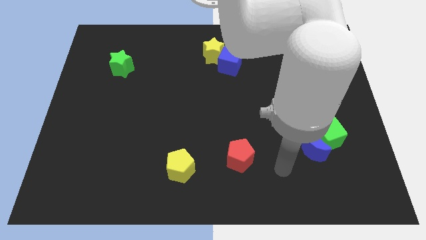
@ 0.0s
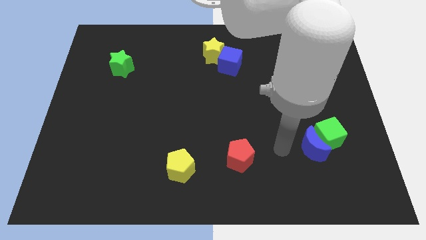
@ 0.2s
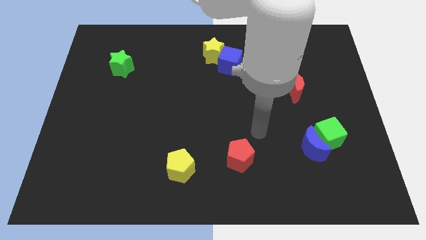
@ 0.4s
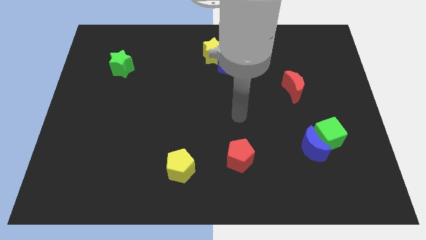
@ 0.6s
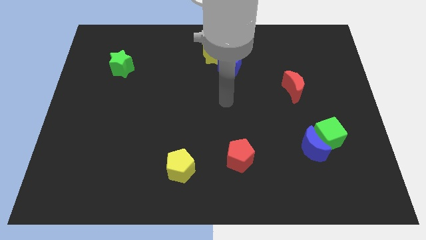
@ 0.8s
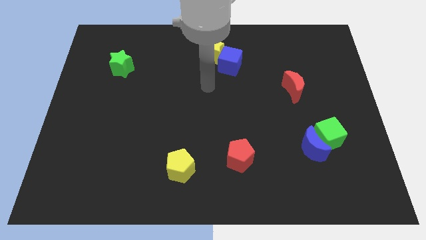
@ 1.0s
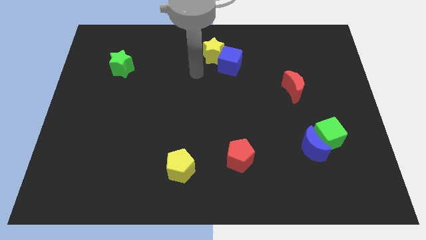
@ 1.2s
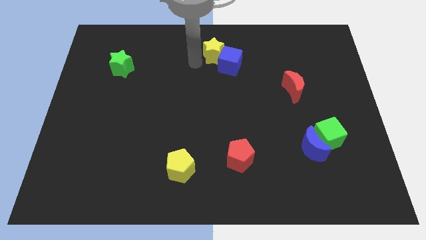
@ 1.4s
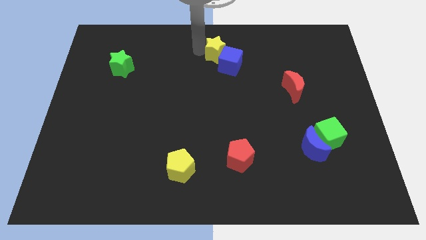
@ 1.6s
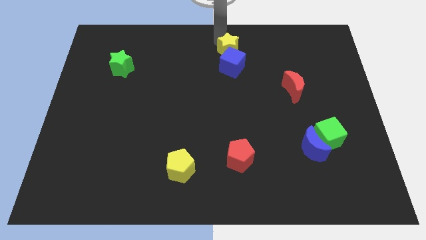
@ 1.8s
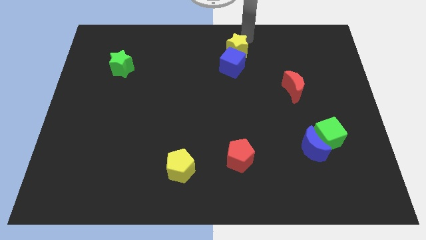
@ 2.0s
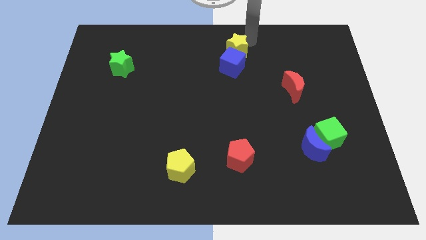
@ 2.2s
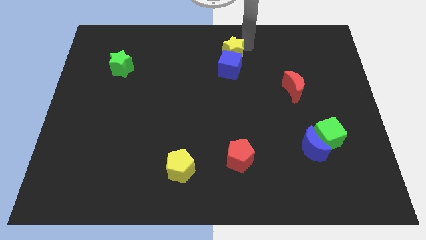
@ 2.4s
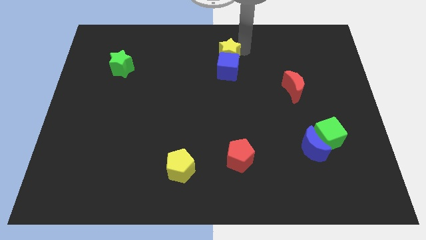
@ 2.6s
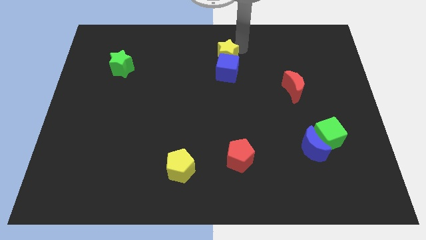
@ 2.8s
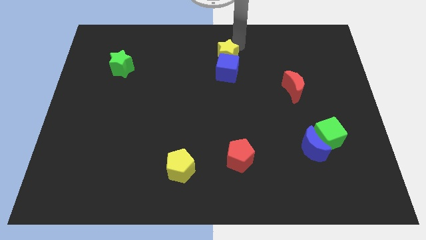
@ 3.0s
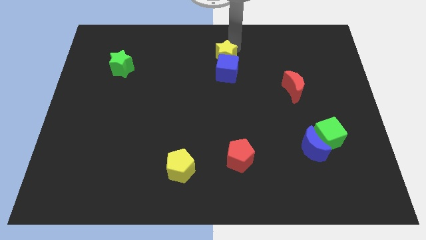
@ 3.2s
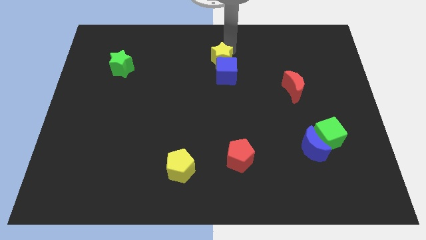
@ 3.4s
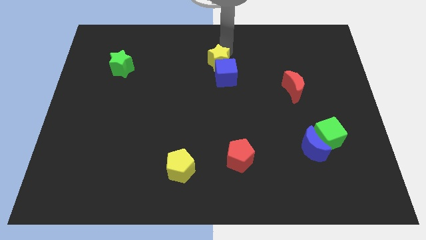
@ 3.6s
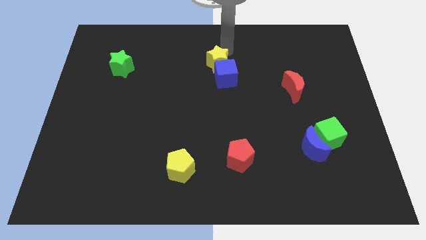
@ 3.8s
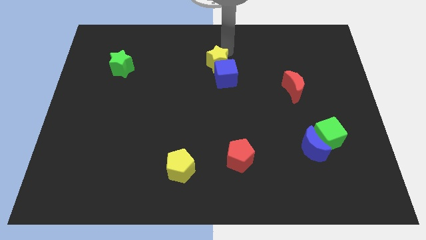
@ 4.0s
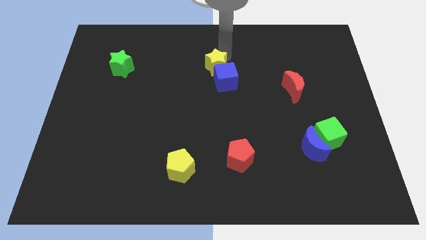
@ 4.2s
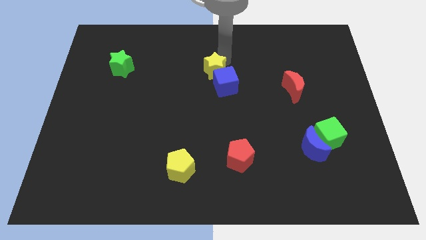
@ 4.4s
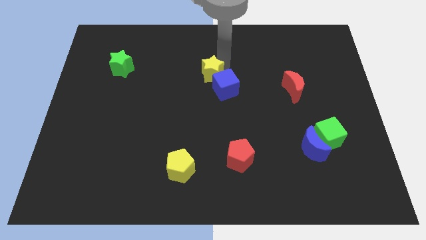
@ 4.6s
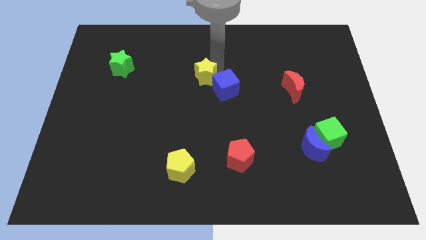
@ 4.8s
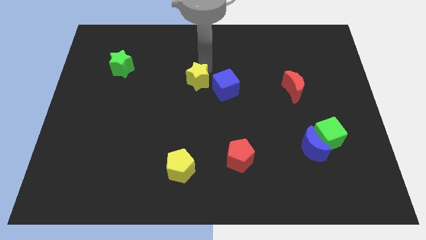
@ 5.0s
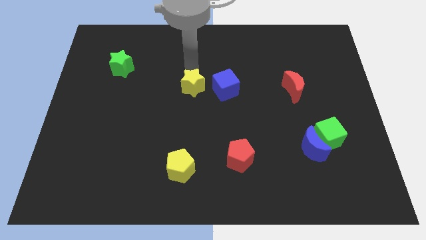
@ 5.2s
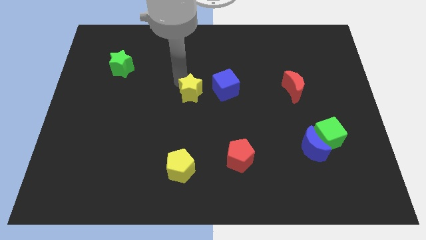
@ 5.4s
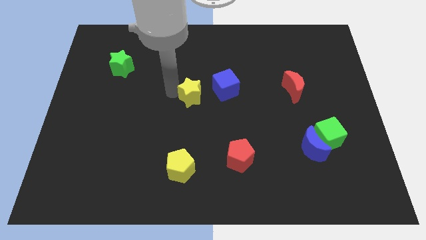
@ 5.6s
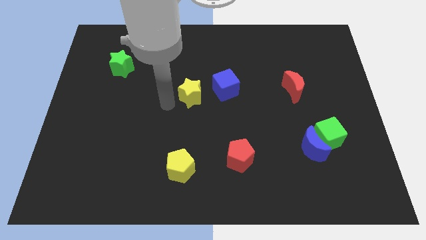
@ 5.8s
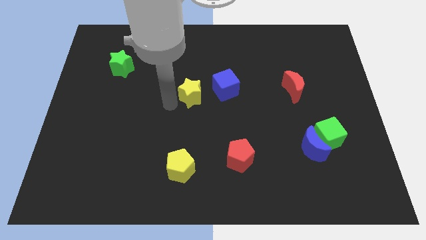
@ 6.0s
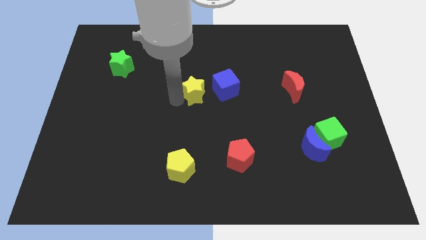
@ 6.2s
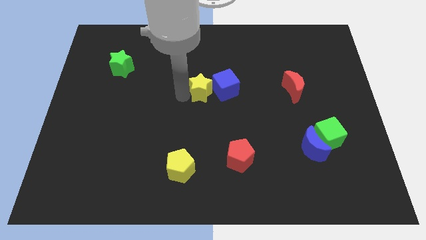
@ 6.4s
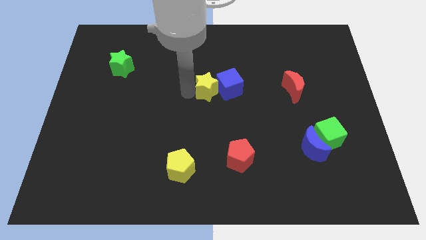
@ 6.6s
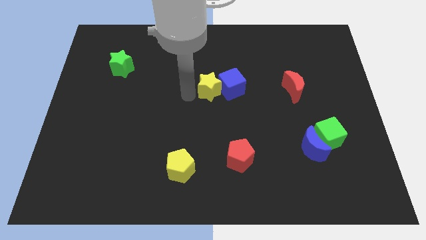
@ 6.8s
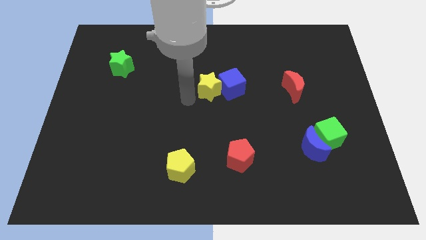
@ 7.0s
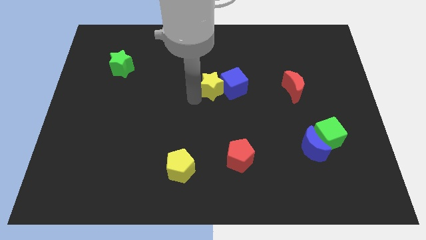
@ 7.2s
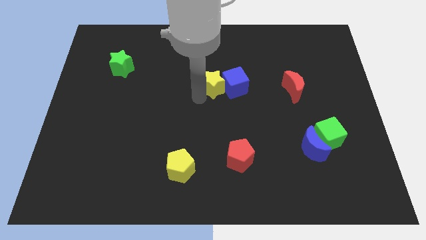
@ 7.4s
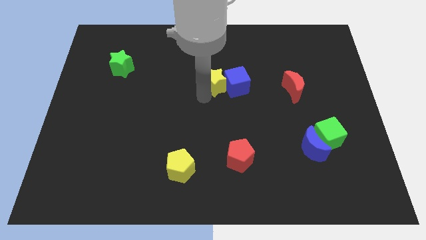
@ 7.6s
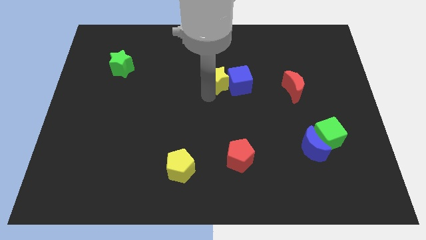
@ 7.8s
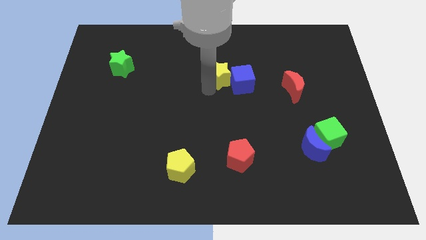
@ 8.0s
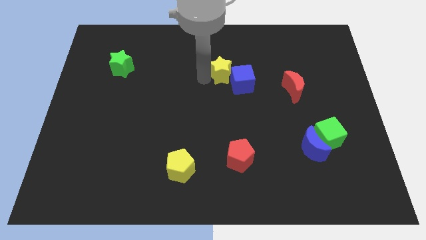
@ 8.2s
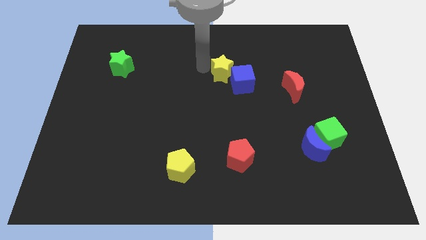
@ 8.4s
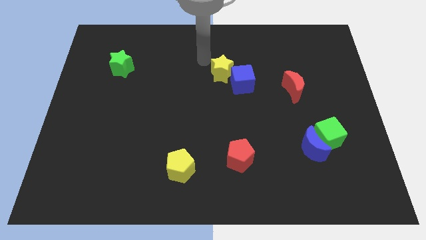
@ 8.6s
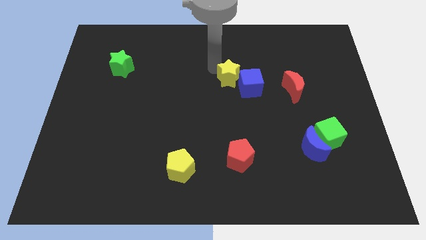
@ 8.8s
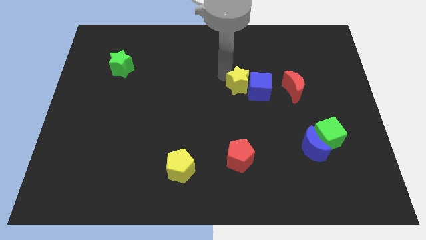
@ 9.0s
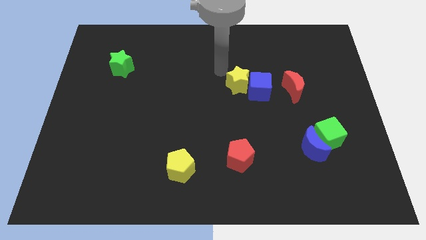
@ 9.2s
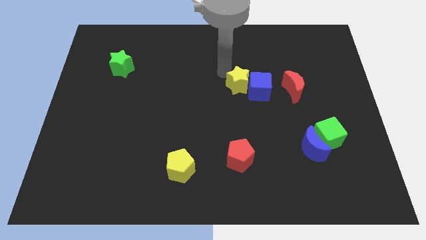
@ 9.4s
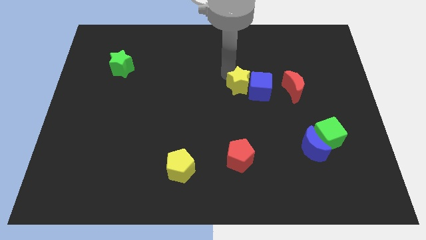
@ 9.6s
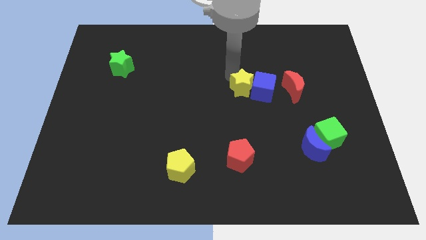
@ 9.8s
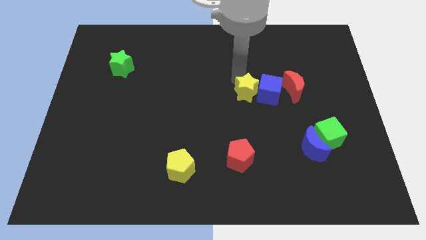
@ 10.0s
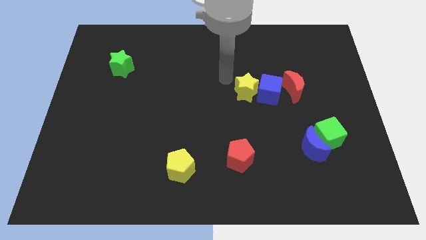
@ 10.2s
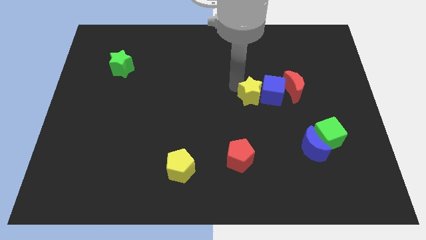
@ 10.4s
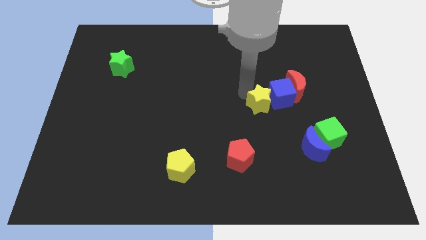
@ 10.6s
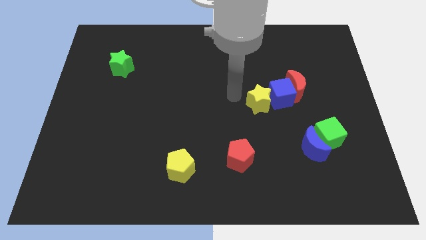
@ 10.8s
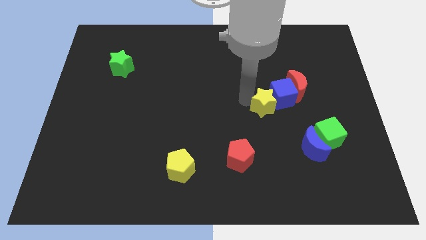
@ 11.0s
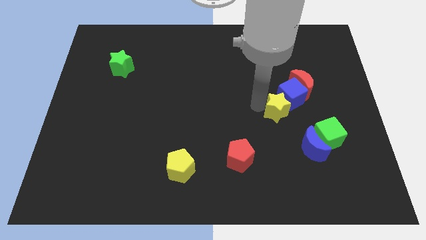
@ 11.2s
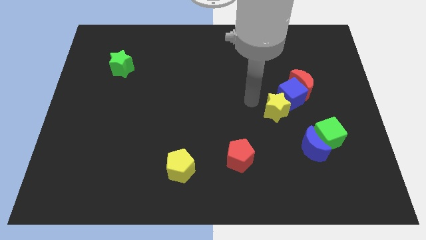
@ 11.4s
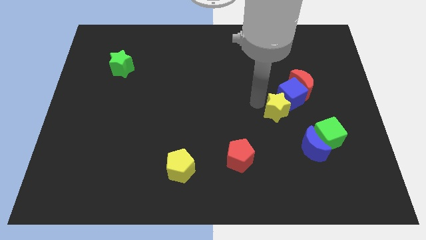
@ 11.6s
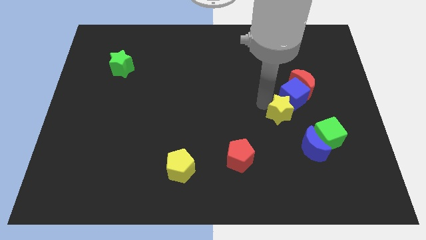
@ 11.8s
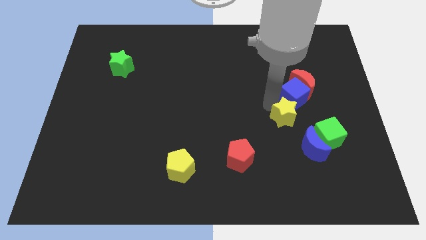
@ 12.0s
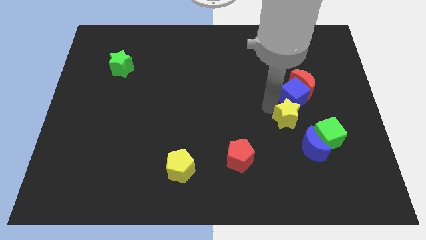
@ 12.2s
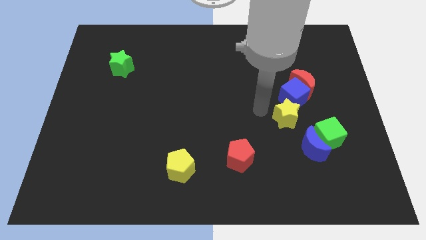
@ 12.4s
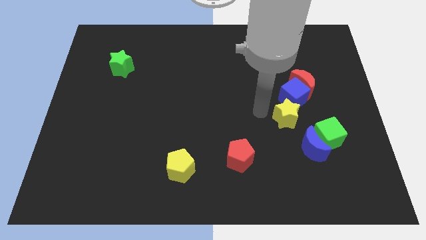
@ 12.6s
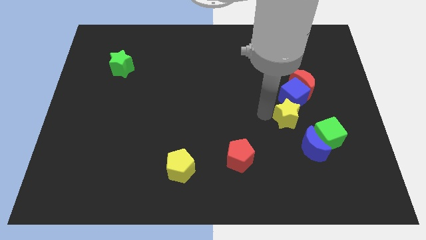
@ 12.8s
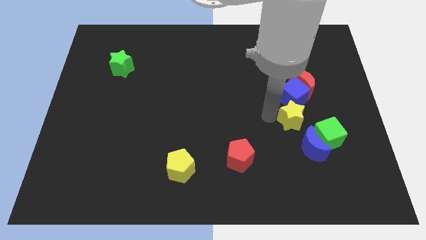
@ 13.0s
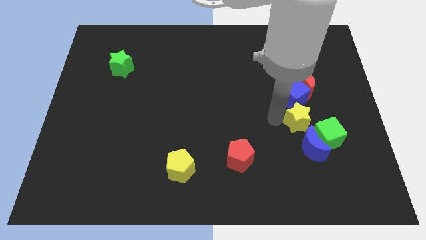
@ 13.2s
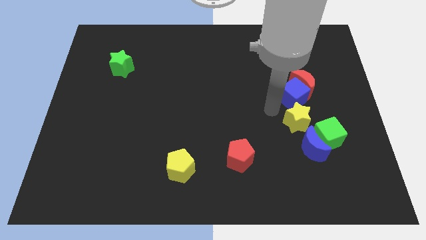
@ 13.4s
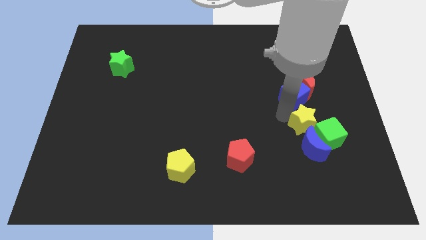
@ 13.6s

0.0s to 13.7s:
slide the yellow star to the green cube

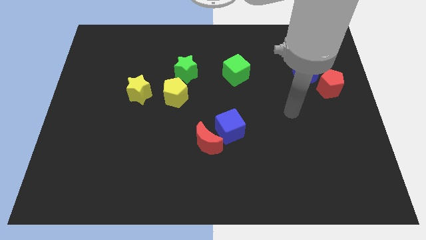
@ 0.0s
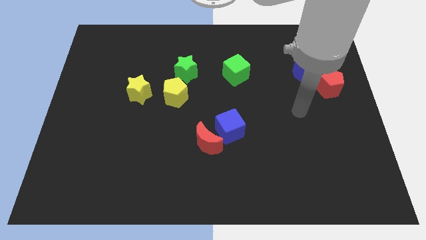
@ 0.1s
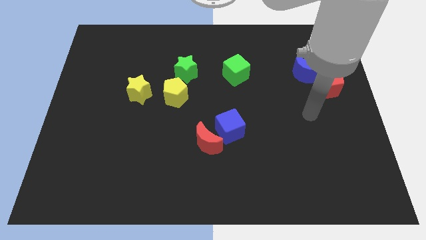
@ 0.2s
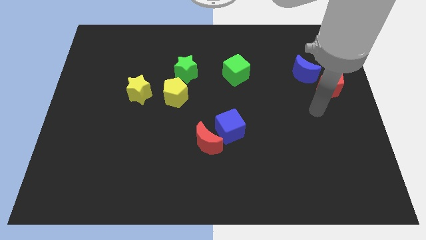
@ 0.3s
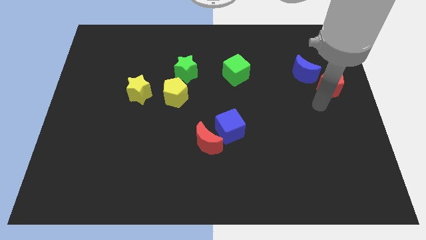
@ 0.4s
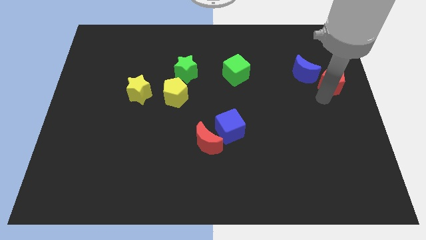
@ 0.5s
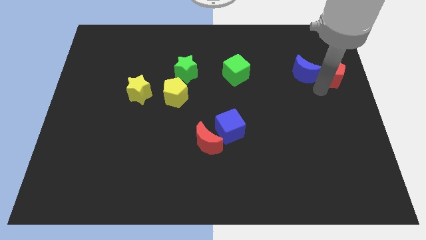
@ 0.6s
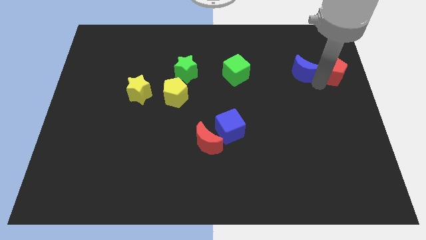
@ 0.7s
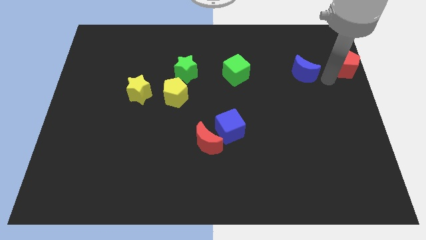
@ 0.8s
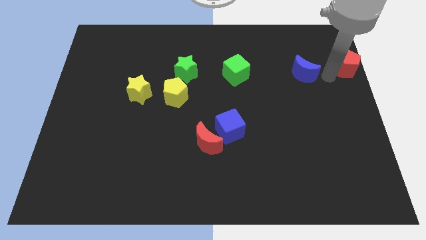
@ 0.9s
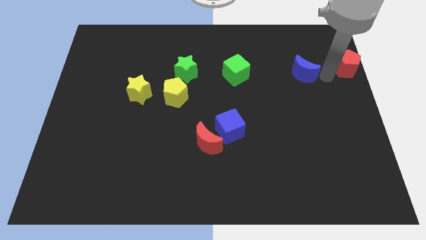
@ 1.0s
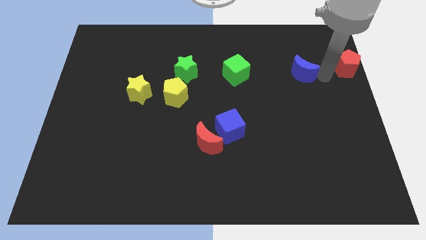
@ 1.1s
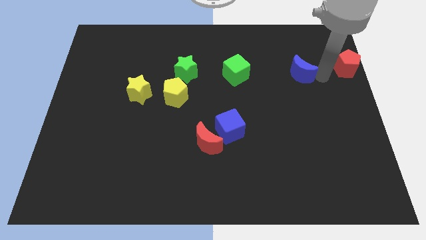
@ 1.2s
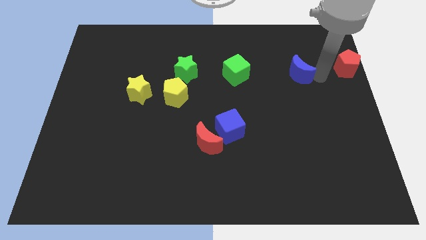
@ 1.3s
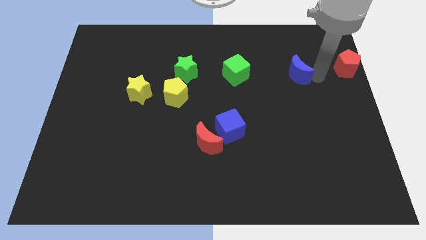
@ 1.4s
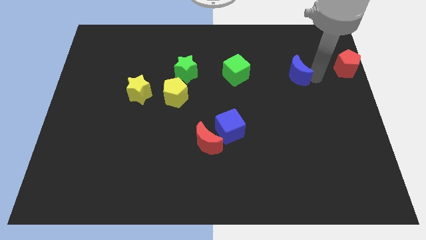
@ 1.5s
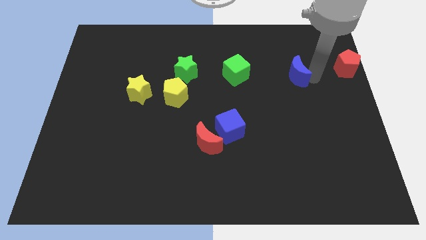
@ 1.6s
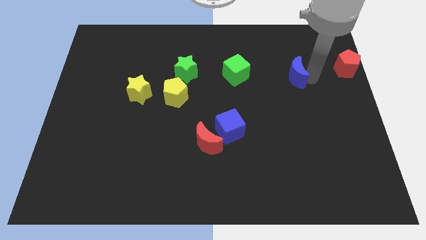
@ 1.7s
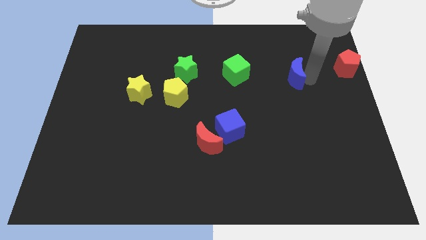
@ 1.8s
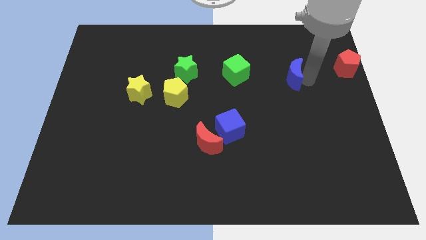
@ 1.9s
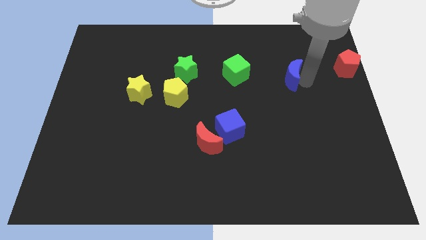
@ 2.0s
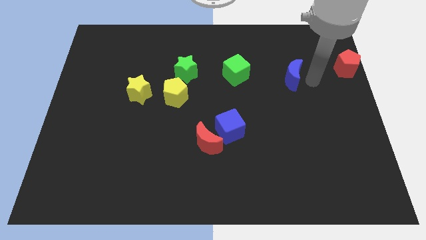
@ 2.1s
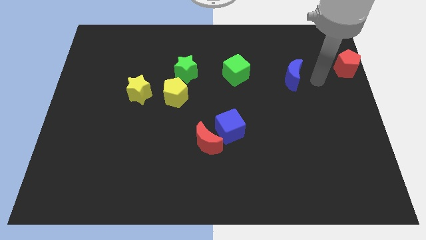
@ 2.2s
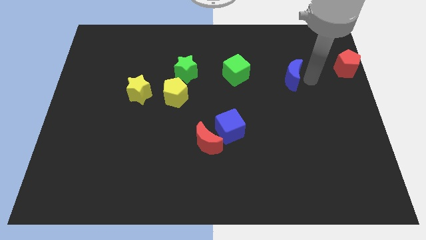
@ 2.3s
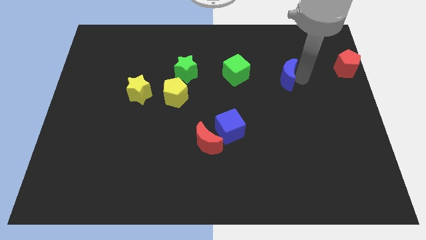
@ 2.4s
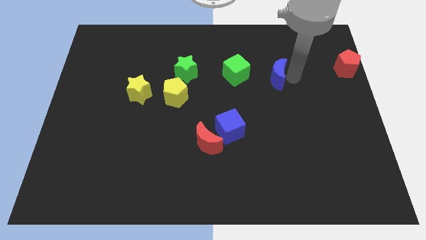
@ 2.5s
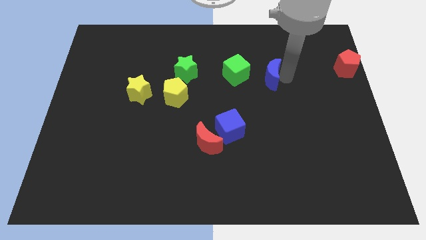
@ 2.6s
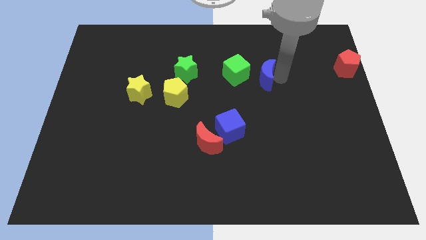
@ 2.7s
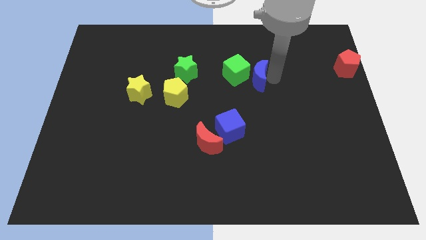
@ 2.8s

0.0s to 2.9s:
put the blue moon towards the green cube
